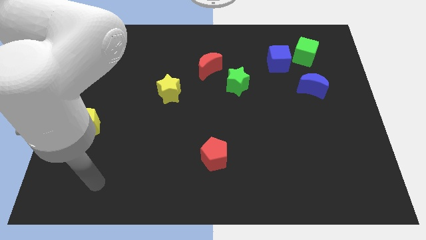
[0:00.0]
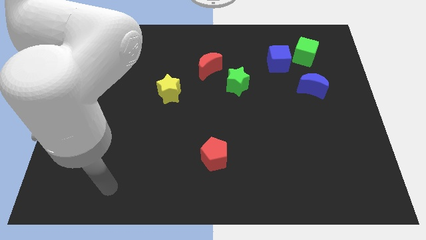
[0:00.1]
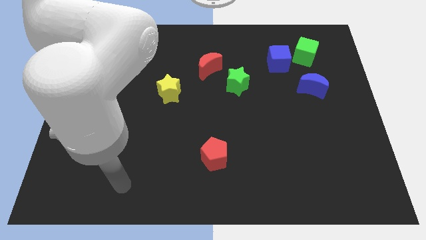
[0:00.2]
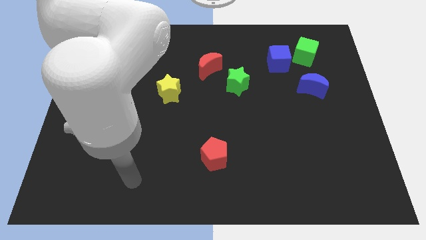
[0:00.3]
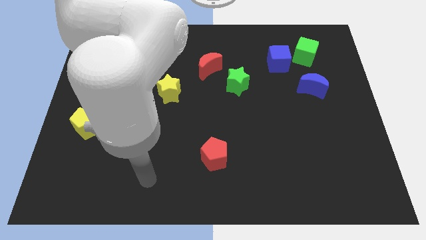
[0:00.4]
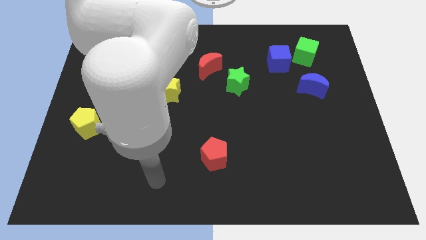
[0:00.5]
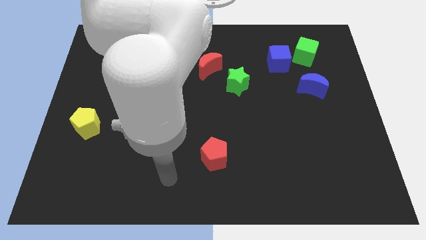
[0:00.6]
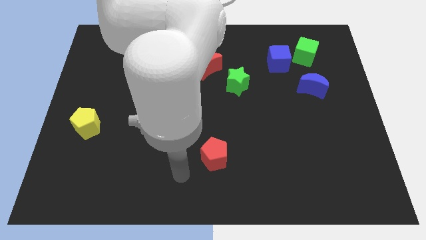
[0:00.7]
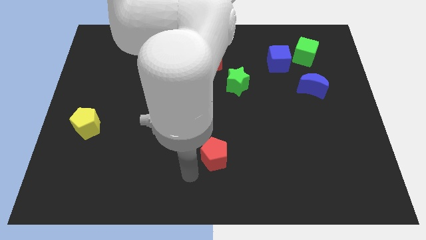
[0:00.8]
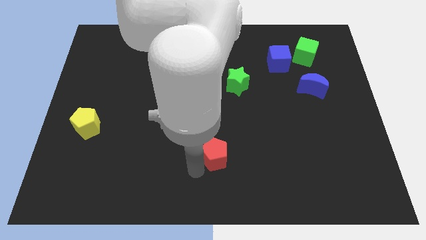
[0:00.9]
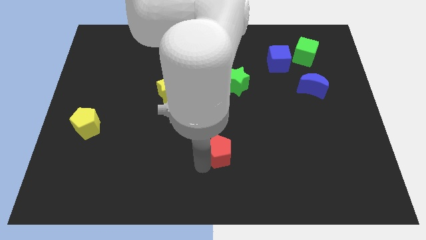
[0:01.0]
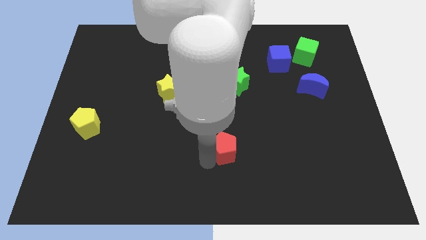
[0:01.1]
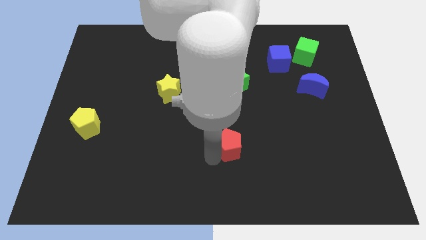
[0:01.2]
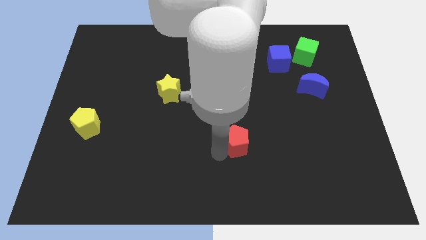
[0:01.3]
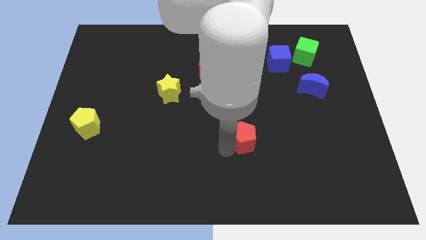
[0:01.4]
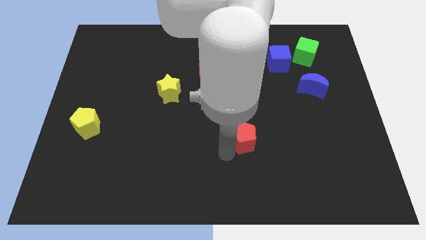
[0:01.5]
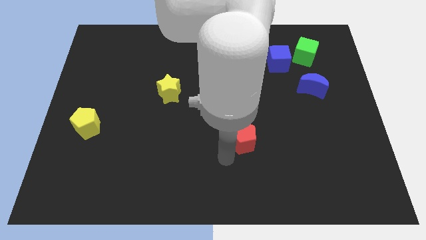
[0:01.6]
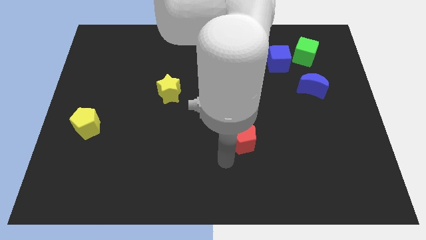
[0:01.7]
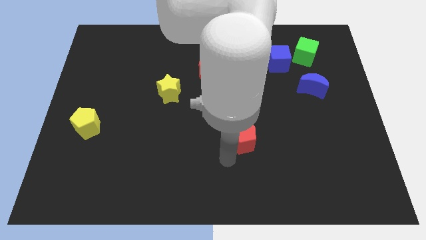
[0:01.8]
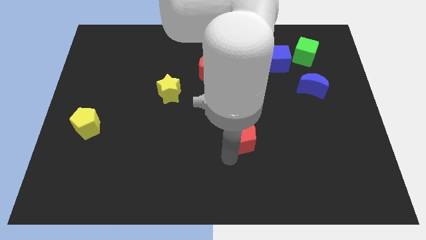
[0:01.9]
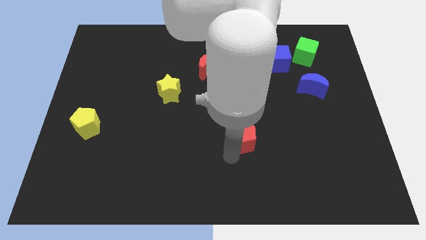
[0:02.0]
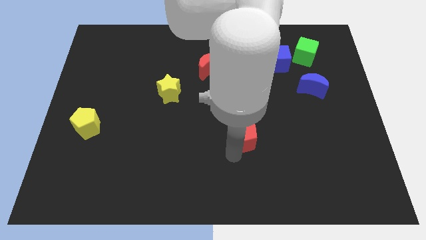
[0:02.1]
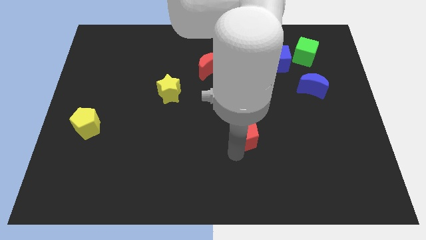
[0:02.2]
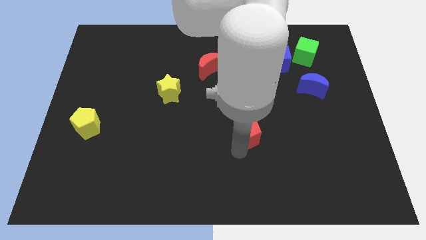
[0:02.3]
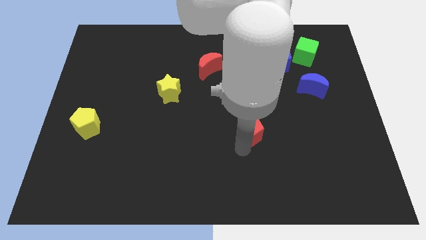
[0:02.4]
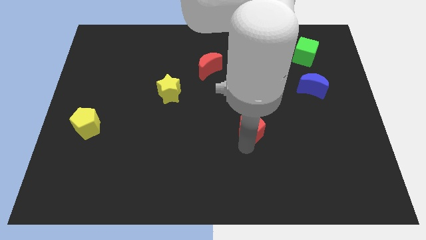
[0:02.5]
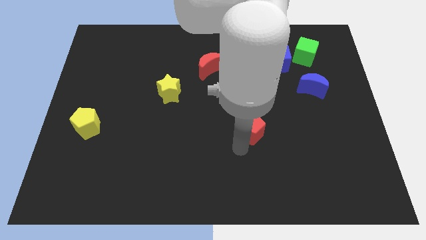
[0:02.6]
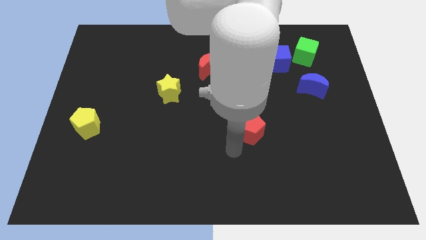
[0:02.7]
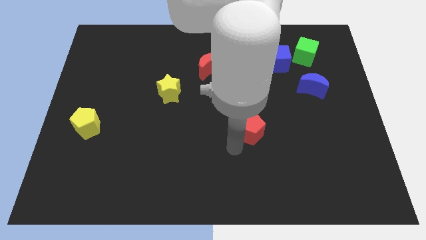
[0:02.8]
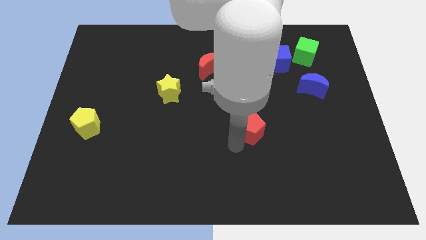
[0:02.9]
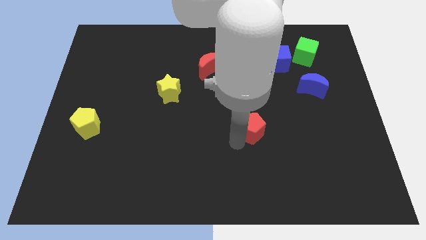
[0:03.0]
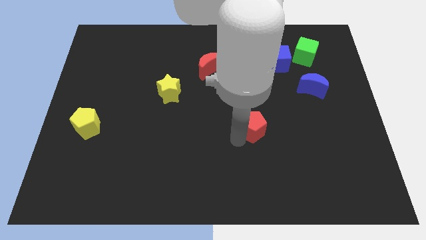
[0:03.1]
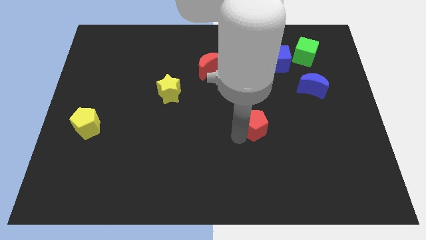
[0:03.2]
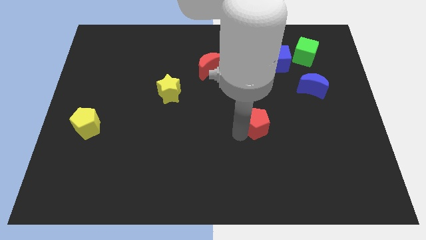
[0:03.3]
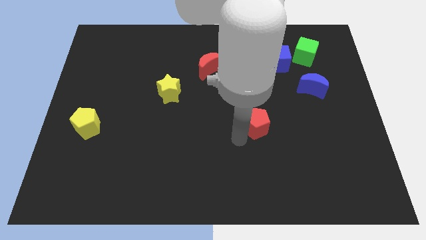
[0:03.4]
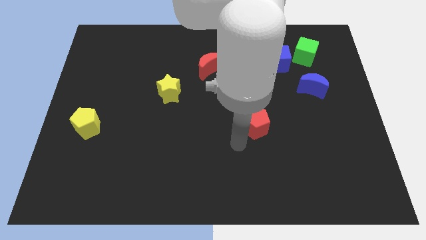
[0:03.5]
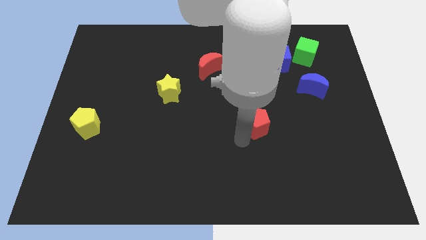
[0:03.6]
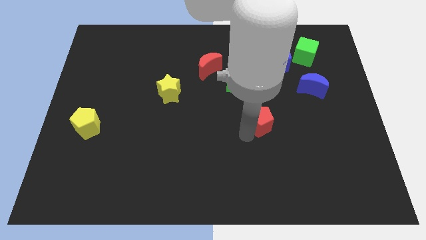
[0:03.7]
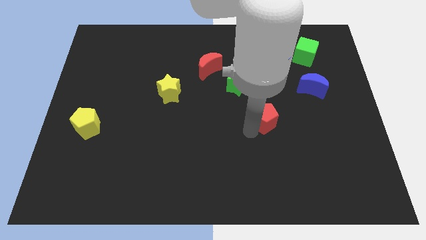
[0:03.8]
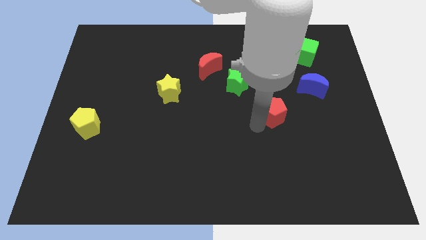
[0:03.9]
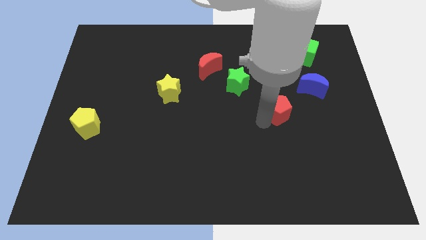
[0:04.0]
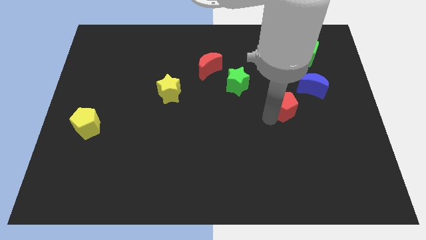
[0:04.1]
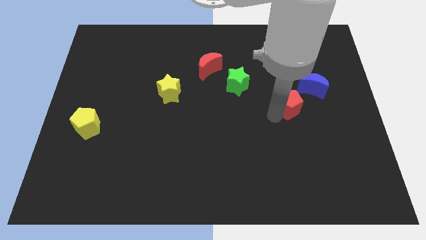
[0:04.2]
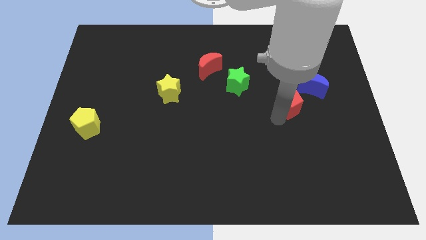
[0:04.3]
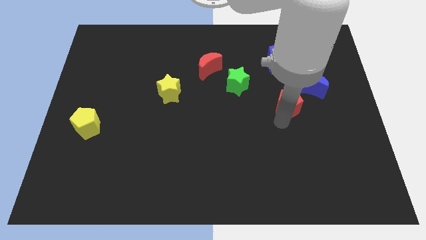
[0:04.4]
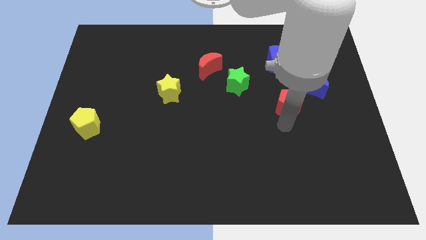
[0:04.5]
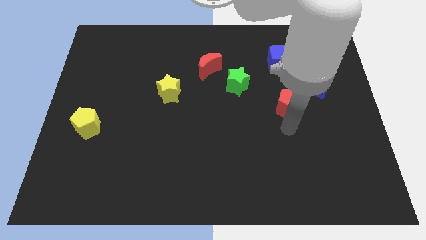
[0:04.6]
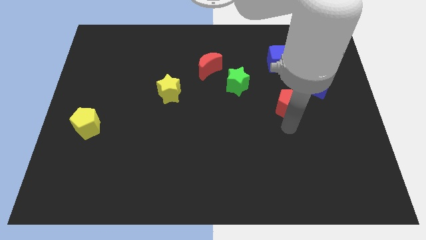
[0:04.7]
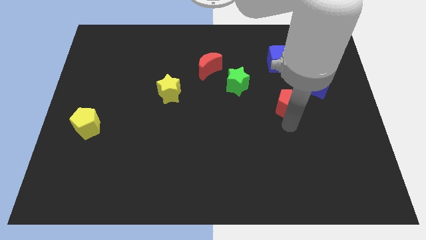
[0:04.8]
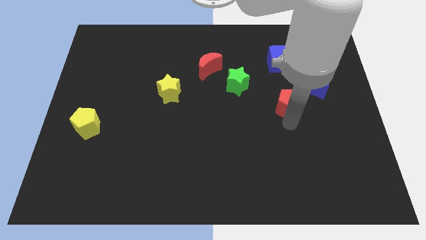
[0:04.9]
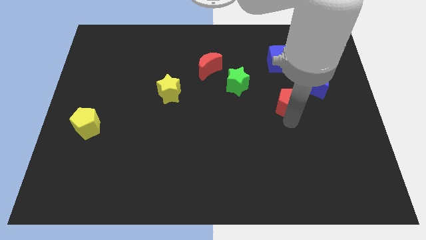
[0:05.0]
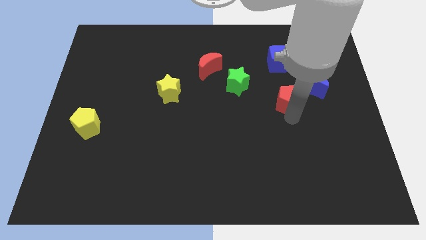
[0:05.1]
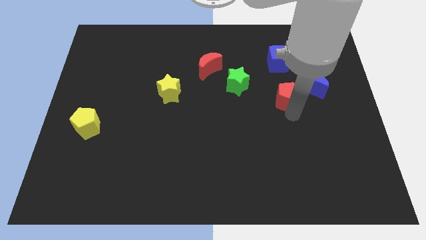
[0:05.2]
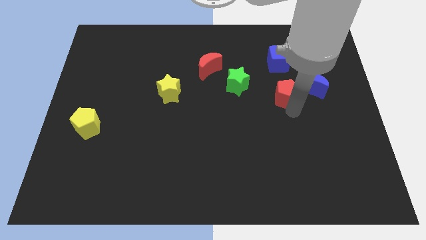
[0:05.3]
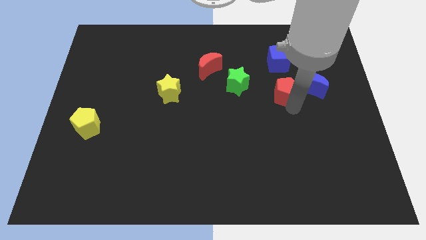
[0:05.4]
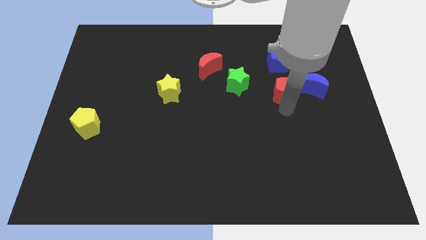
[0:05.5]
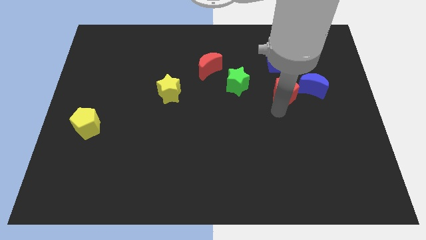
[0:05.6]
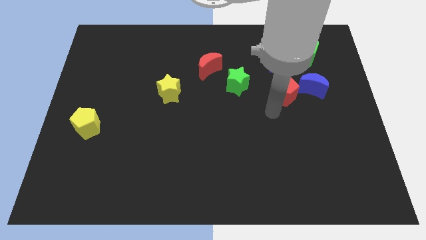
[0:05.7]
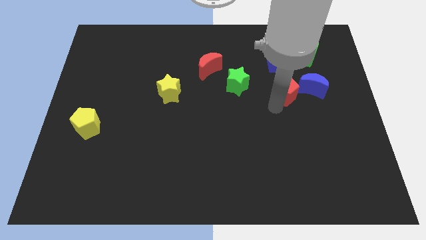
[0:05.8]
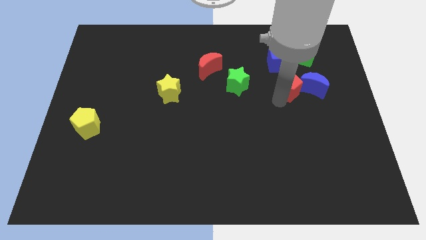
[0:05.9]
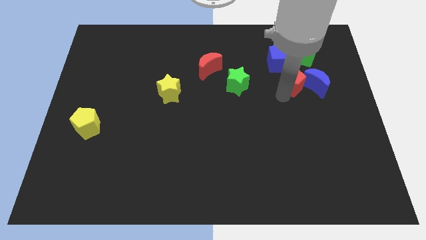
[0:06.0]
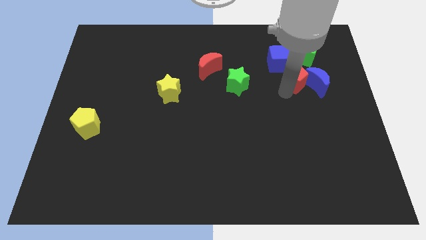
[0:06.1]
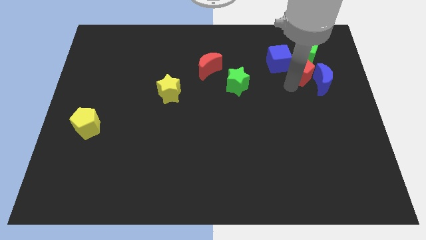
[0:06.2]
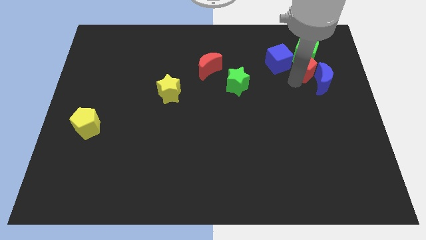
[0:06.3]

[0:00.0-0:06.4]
push the red pentagon next to the green cube
